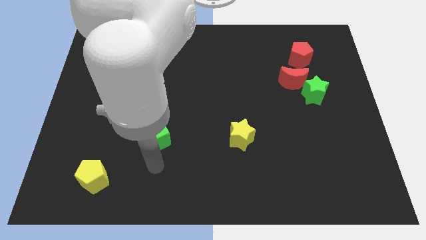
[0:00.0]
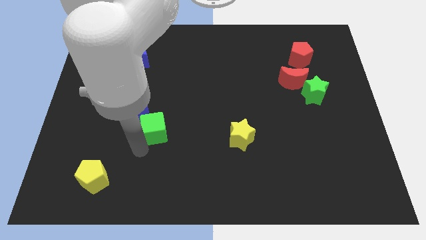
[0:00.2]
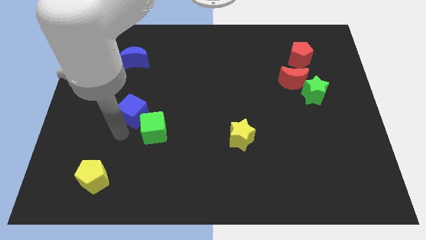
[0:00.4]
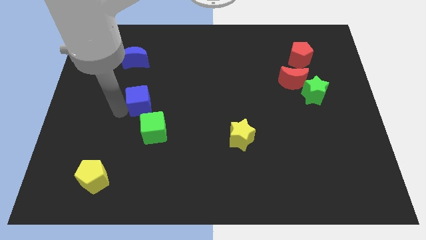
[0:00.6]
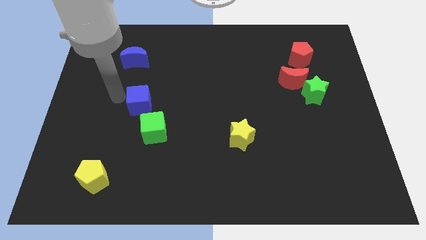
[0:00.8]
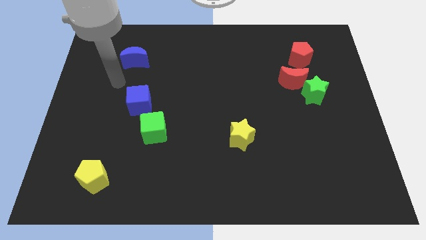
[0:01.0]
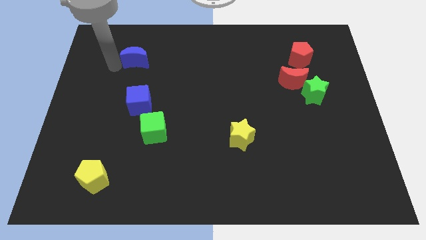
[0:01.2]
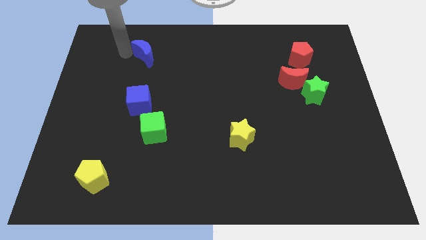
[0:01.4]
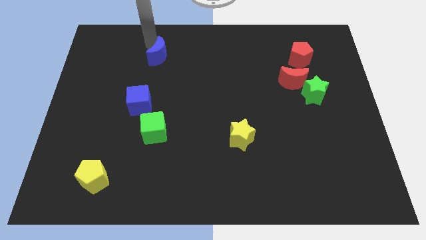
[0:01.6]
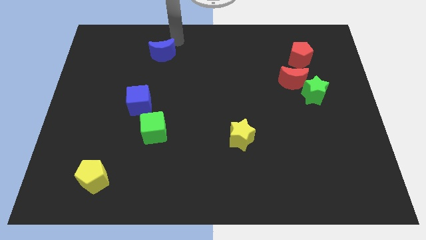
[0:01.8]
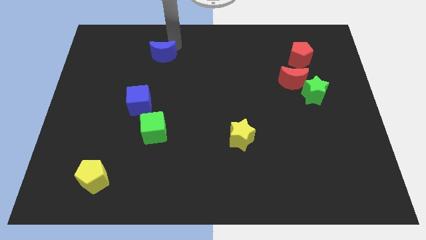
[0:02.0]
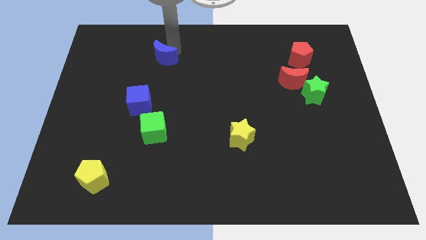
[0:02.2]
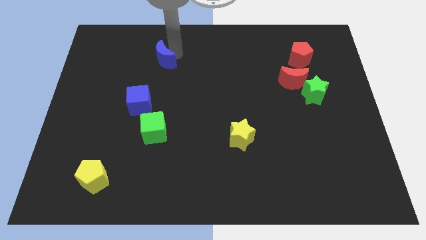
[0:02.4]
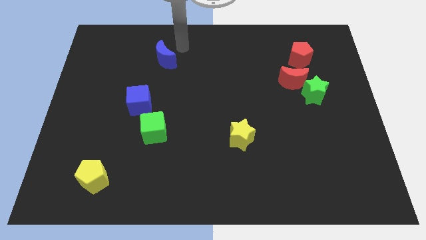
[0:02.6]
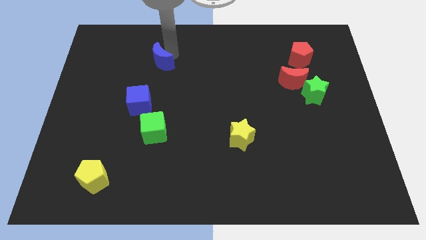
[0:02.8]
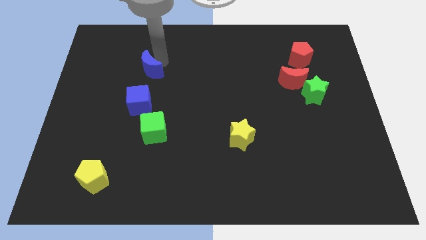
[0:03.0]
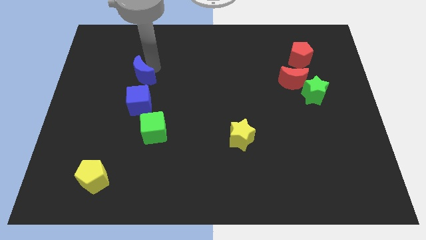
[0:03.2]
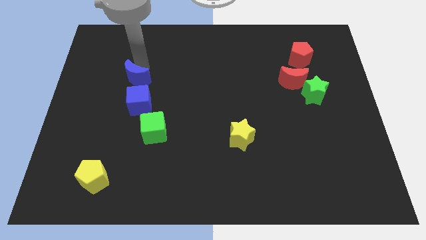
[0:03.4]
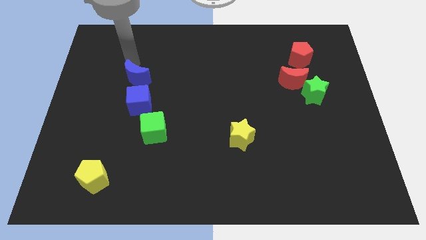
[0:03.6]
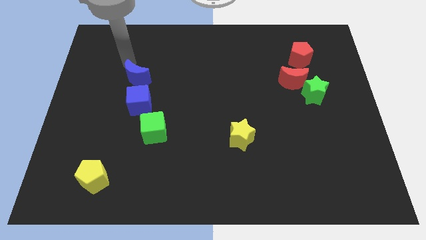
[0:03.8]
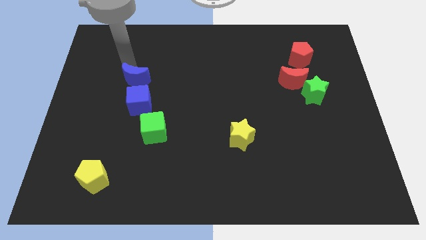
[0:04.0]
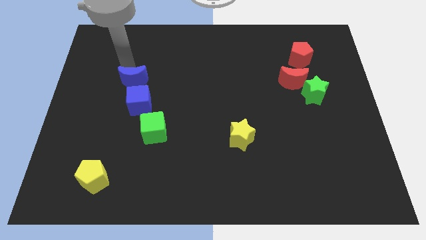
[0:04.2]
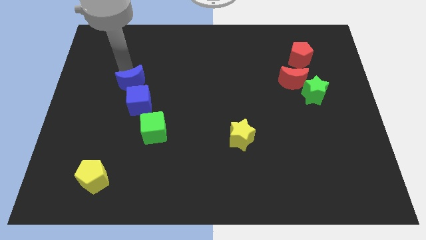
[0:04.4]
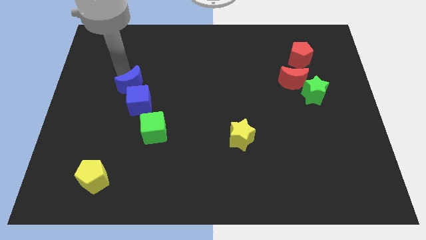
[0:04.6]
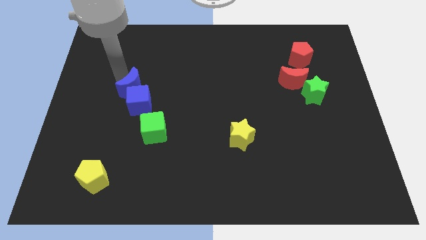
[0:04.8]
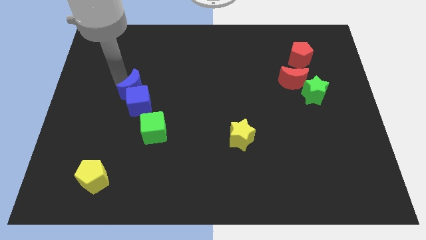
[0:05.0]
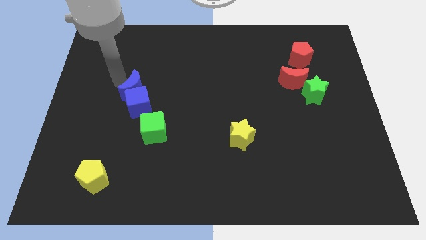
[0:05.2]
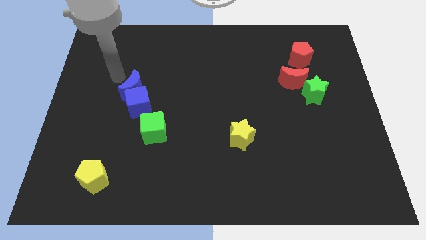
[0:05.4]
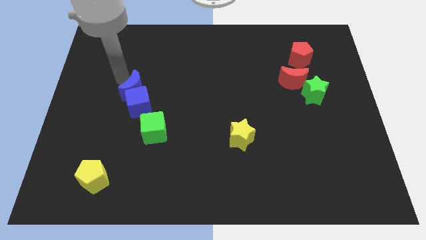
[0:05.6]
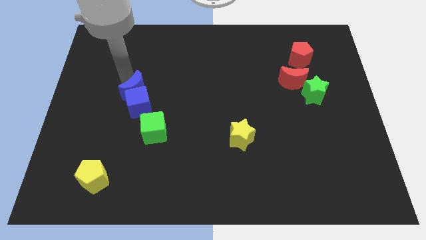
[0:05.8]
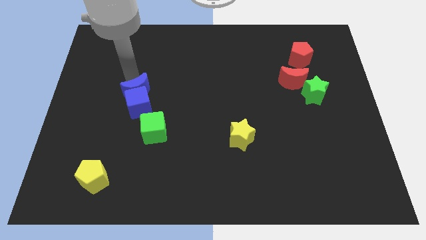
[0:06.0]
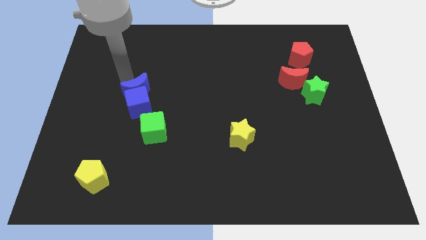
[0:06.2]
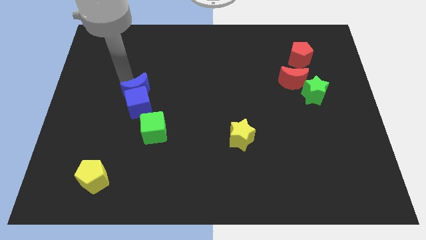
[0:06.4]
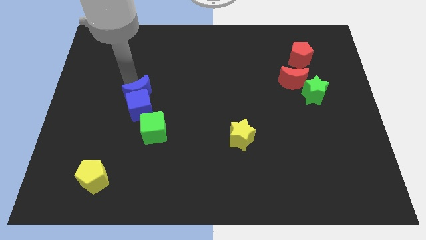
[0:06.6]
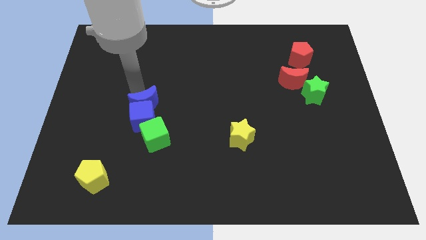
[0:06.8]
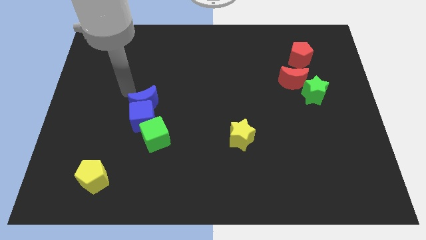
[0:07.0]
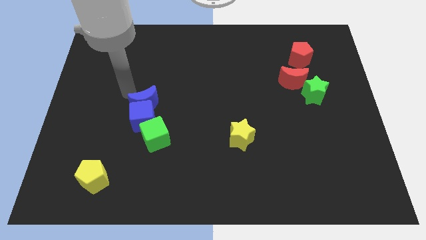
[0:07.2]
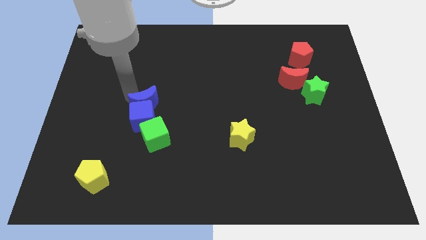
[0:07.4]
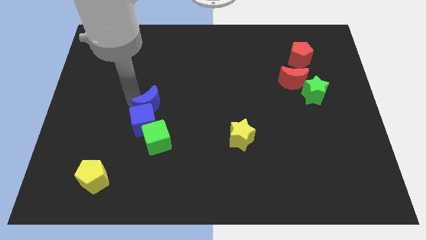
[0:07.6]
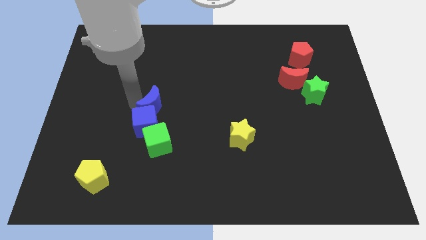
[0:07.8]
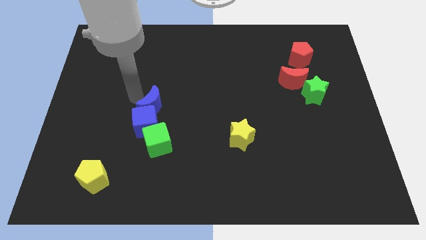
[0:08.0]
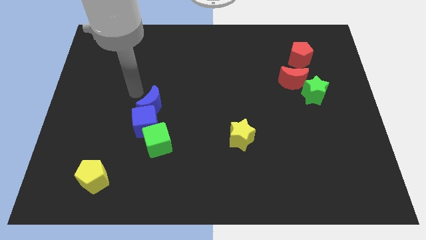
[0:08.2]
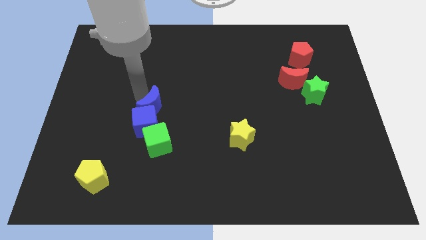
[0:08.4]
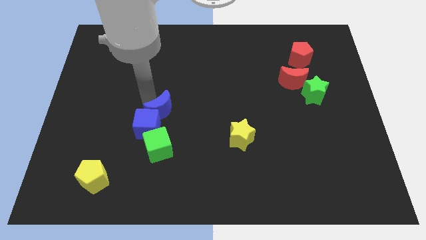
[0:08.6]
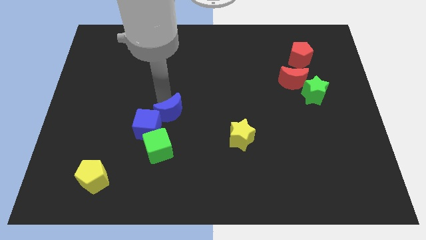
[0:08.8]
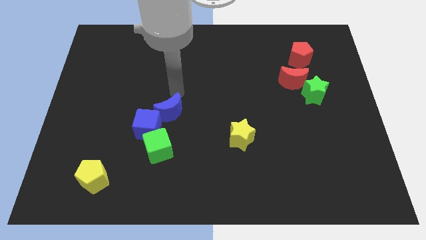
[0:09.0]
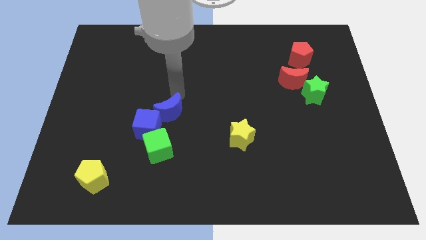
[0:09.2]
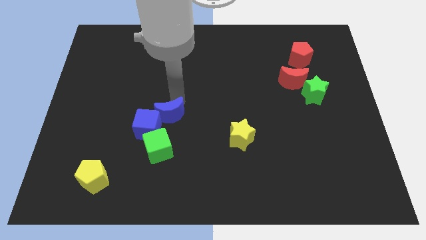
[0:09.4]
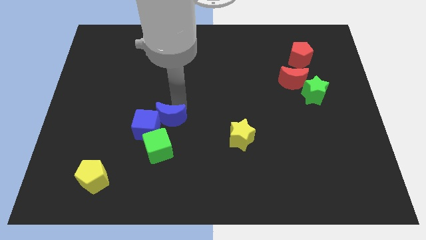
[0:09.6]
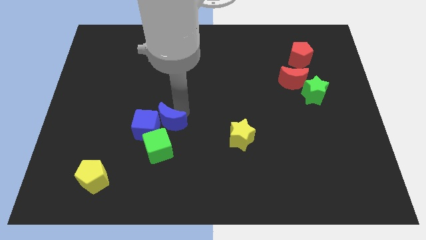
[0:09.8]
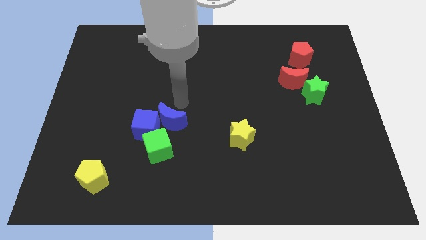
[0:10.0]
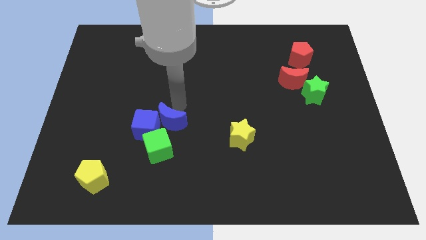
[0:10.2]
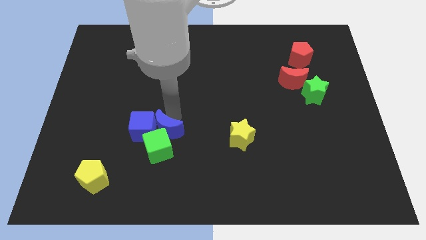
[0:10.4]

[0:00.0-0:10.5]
push the blue moon close to the green cube

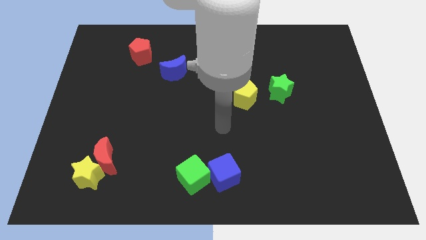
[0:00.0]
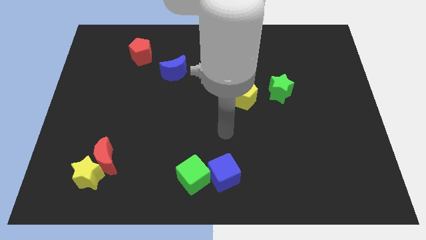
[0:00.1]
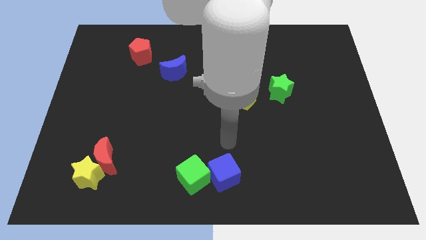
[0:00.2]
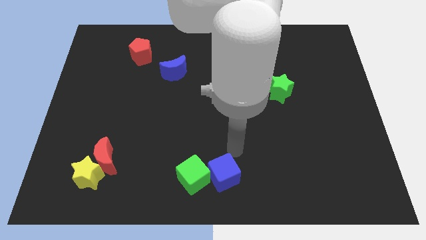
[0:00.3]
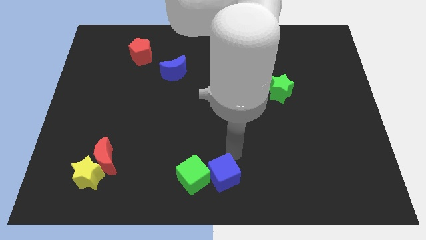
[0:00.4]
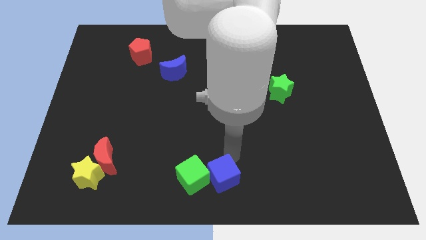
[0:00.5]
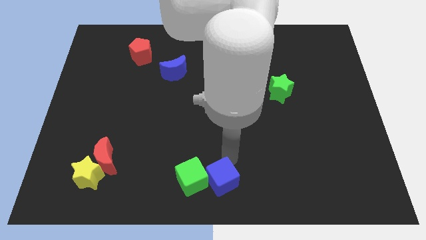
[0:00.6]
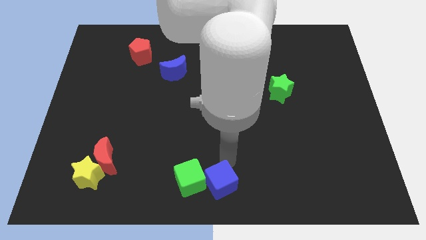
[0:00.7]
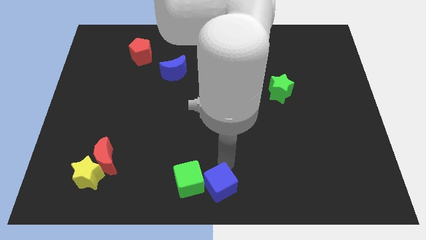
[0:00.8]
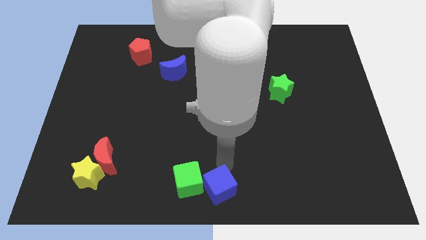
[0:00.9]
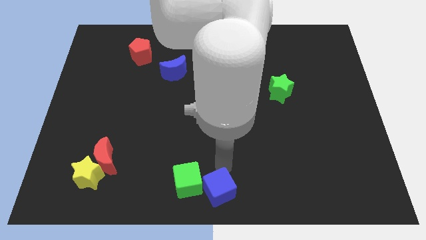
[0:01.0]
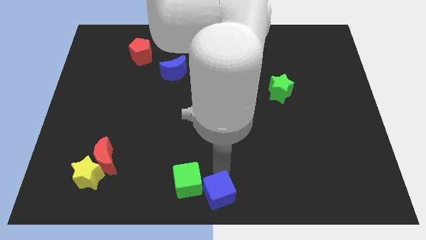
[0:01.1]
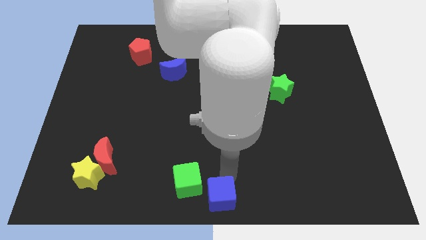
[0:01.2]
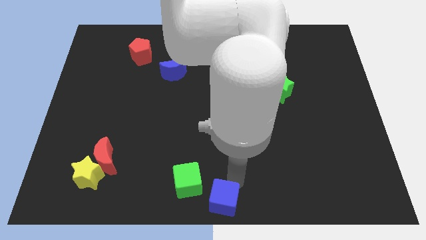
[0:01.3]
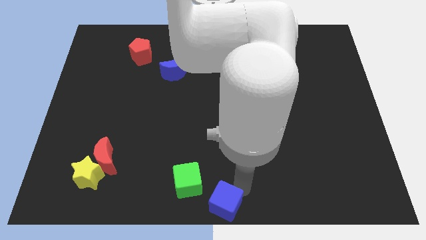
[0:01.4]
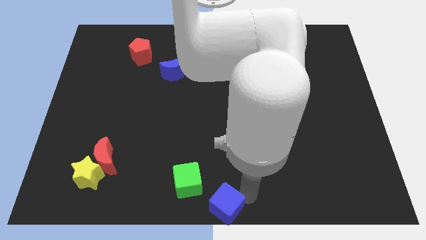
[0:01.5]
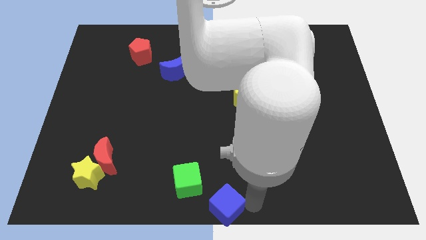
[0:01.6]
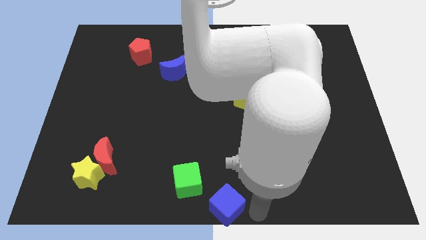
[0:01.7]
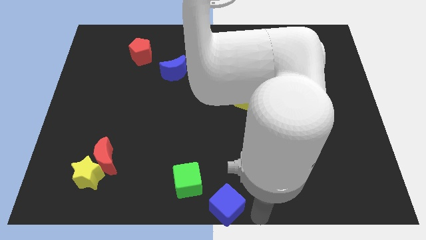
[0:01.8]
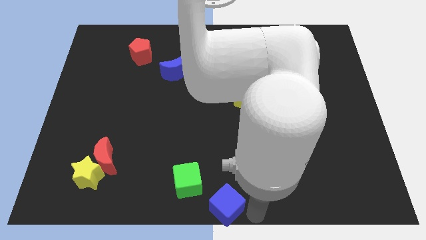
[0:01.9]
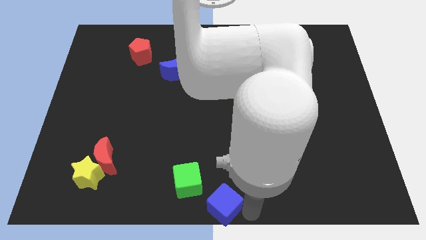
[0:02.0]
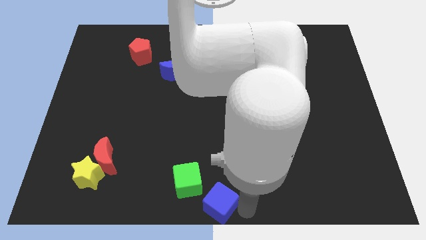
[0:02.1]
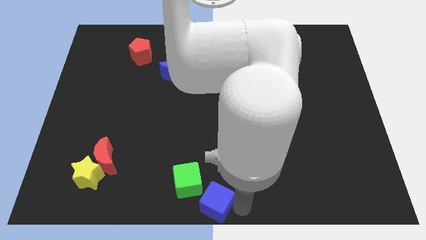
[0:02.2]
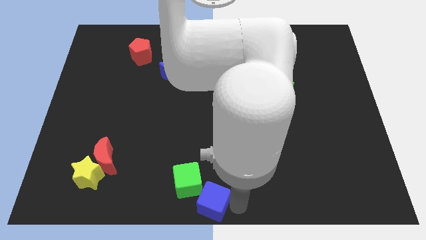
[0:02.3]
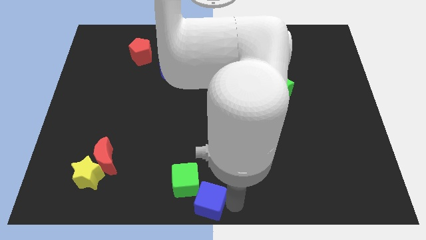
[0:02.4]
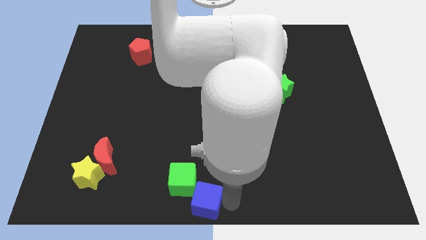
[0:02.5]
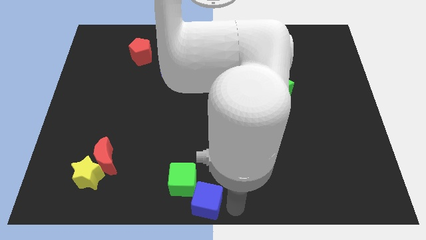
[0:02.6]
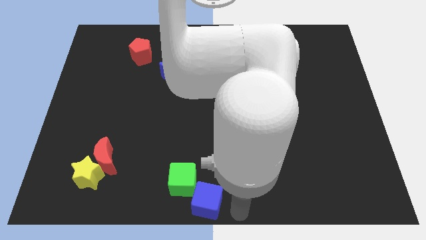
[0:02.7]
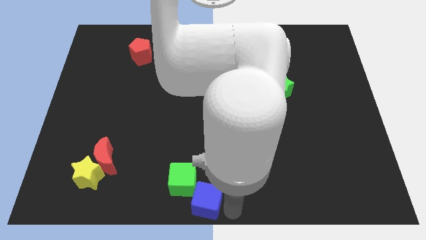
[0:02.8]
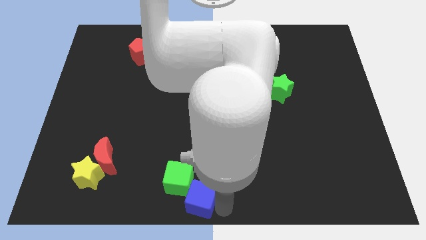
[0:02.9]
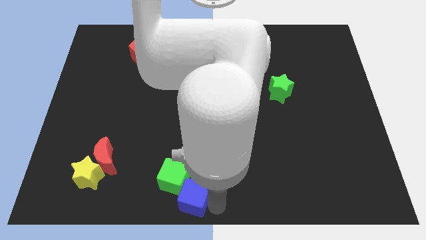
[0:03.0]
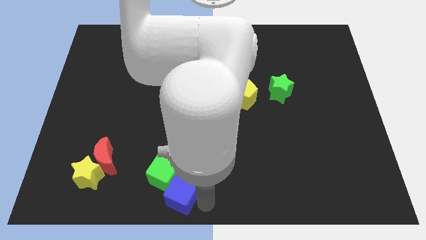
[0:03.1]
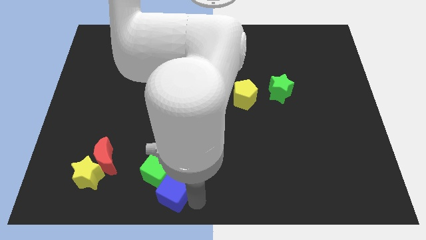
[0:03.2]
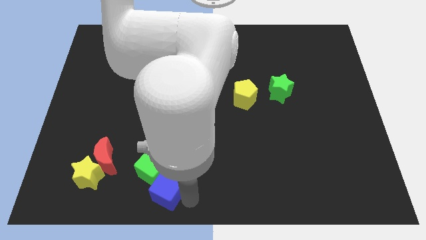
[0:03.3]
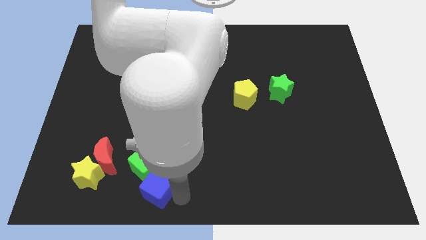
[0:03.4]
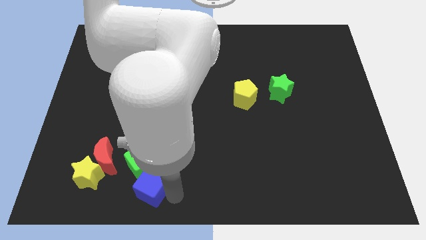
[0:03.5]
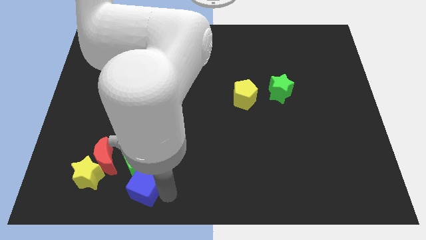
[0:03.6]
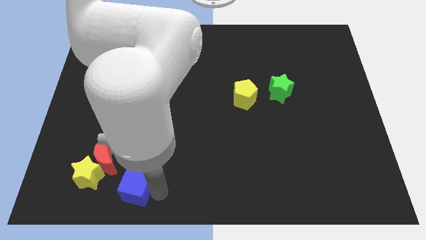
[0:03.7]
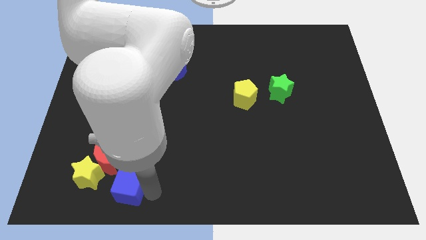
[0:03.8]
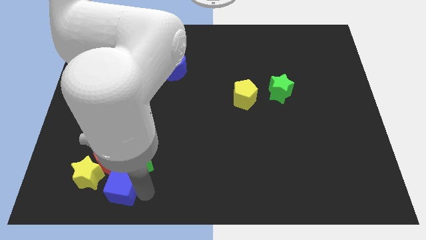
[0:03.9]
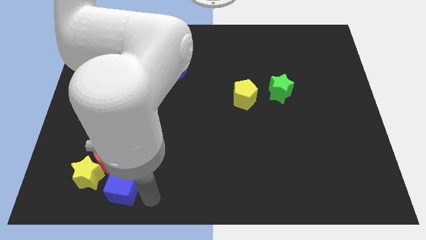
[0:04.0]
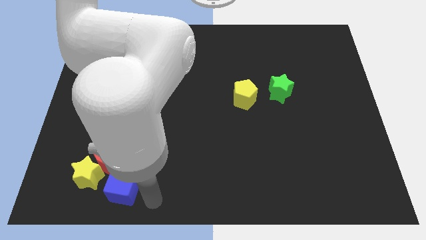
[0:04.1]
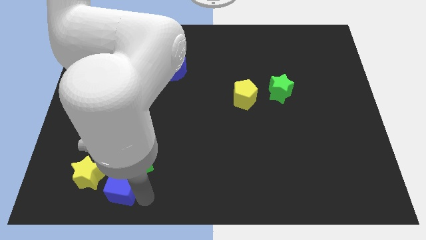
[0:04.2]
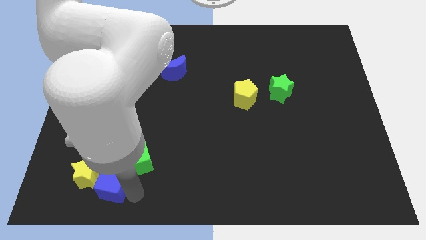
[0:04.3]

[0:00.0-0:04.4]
put the blue cube to the yellow star
